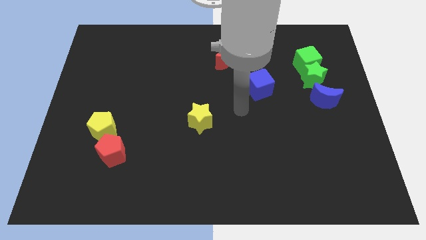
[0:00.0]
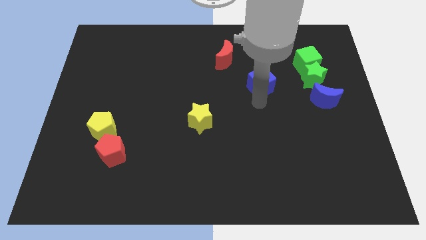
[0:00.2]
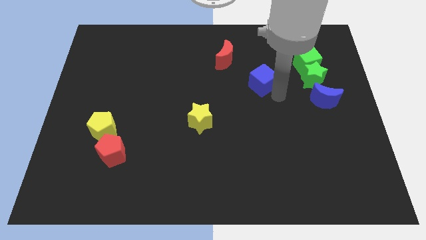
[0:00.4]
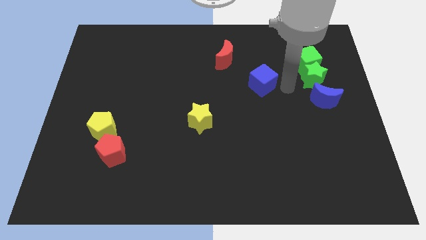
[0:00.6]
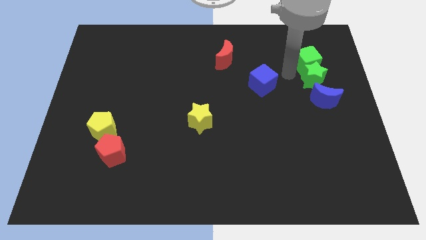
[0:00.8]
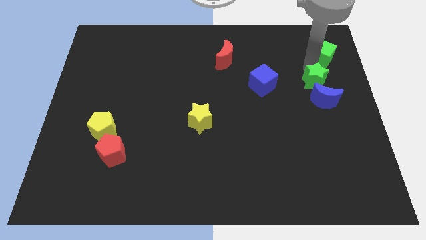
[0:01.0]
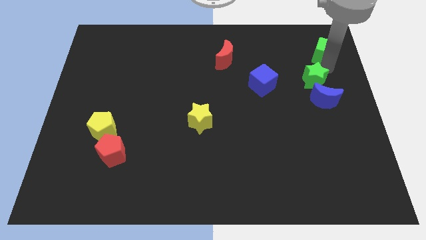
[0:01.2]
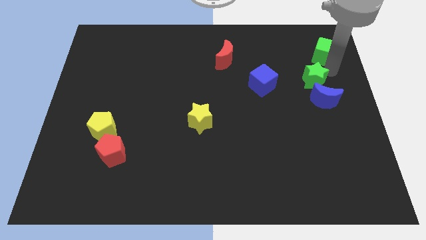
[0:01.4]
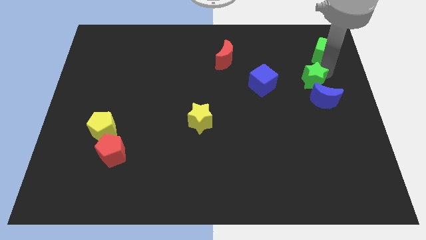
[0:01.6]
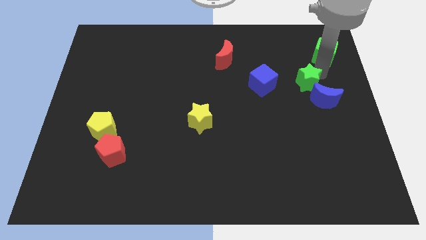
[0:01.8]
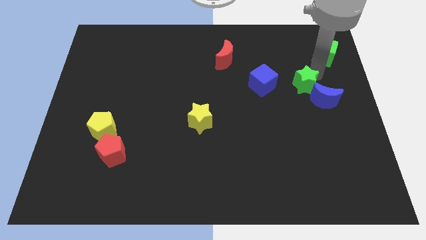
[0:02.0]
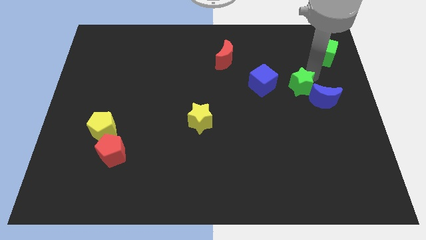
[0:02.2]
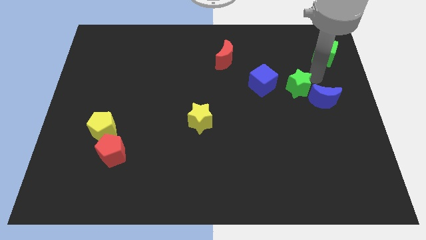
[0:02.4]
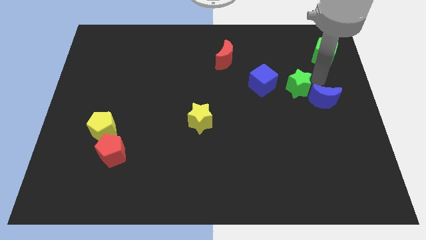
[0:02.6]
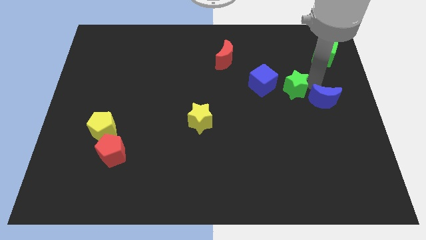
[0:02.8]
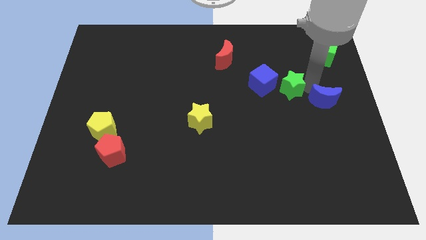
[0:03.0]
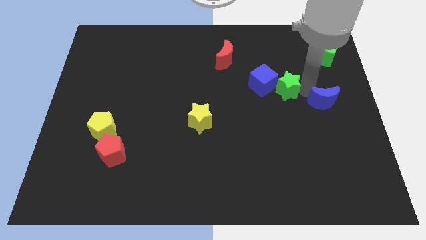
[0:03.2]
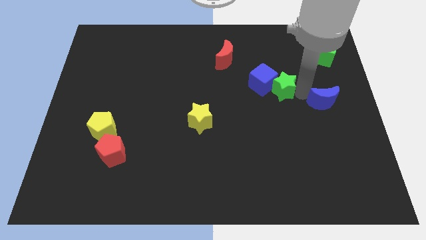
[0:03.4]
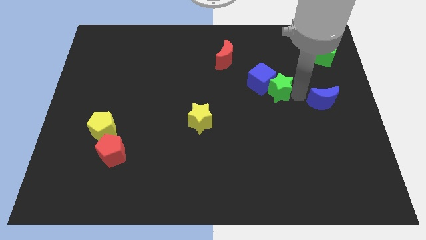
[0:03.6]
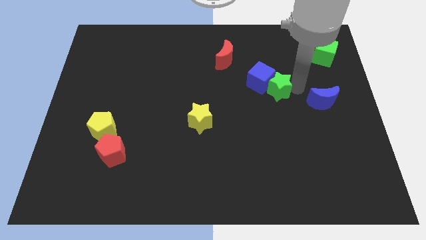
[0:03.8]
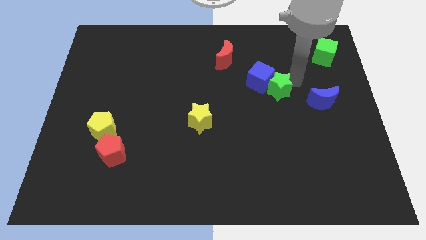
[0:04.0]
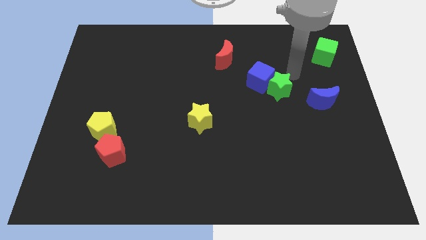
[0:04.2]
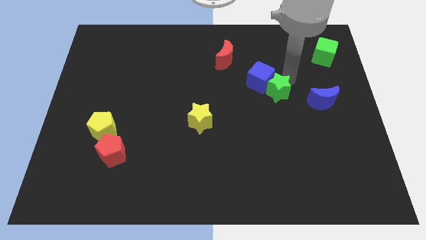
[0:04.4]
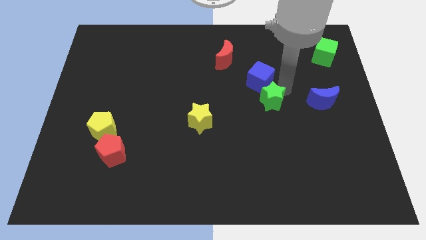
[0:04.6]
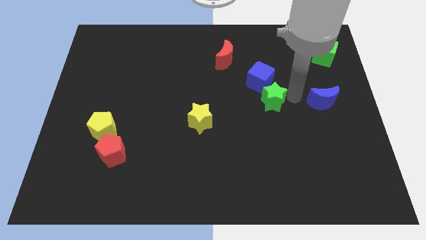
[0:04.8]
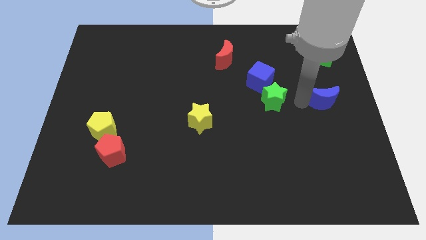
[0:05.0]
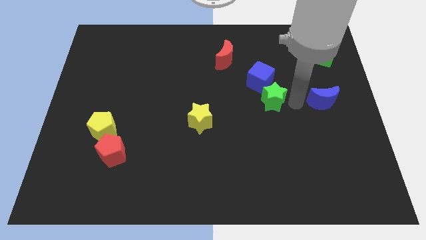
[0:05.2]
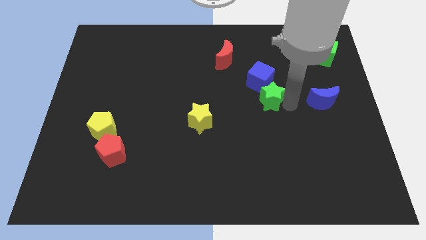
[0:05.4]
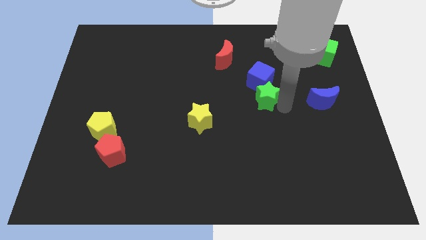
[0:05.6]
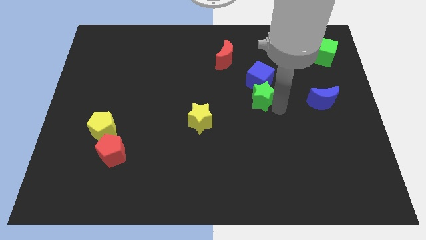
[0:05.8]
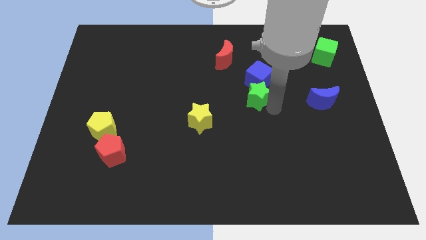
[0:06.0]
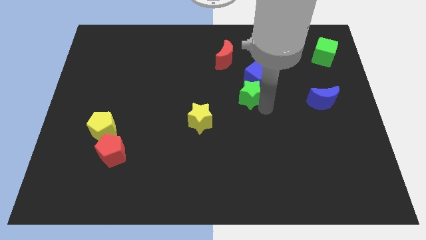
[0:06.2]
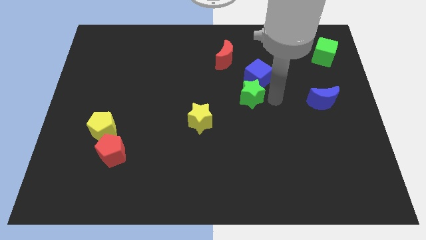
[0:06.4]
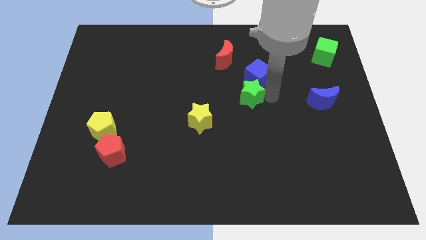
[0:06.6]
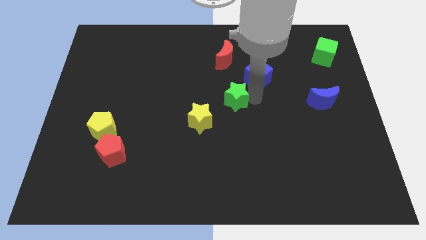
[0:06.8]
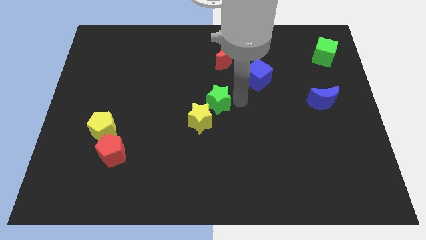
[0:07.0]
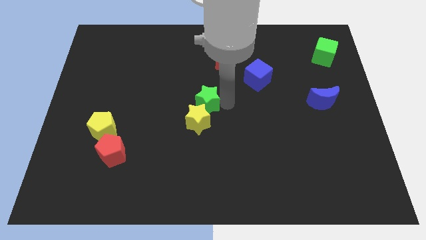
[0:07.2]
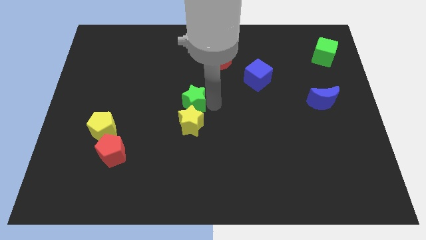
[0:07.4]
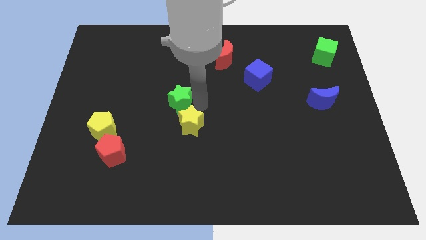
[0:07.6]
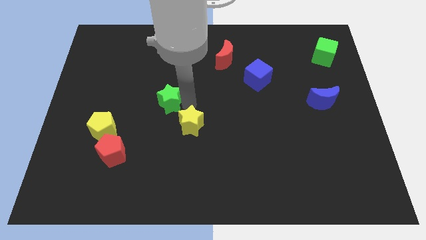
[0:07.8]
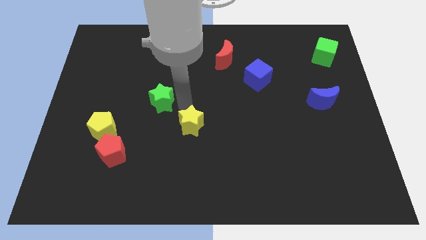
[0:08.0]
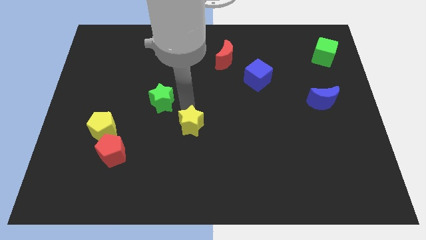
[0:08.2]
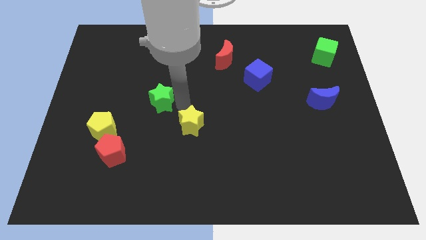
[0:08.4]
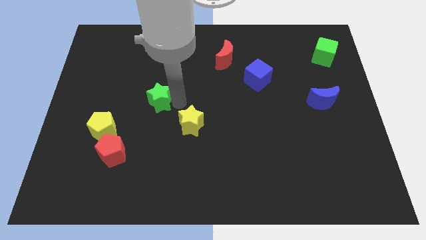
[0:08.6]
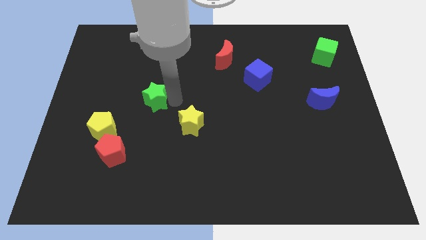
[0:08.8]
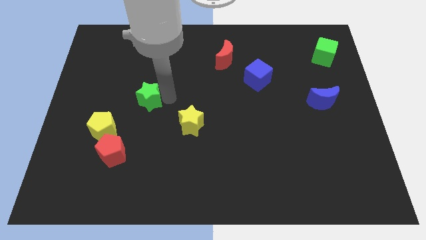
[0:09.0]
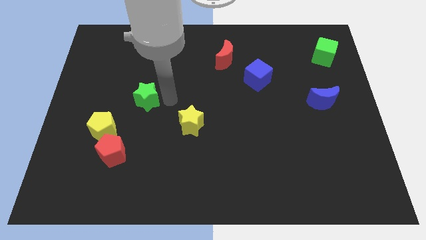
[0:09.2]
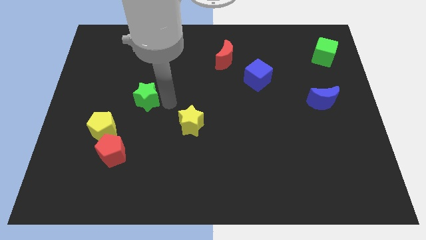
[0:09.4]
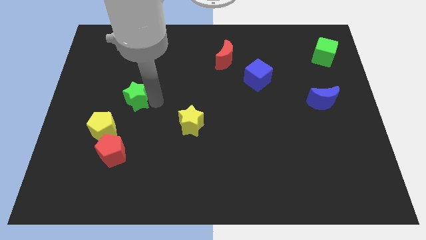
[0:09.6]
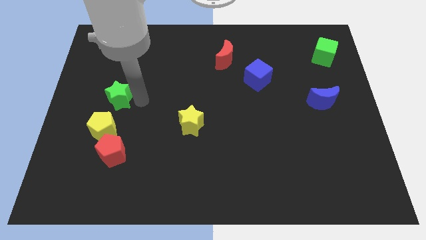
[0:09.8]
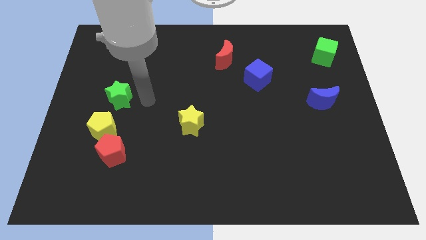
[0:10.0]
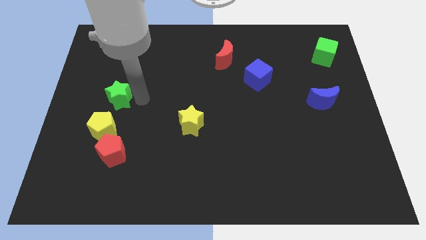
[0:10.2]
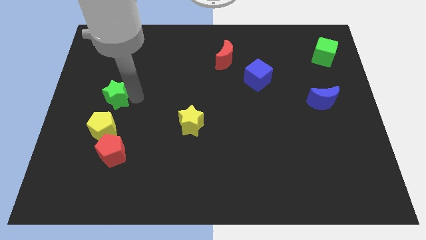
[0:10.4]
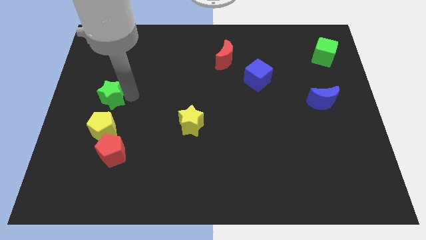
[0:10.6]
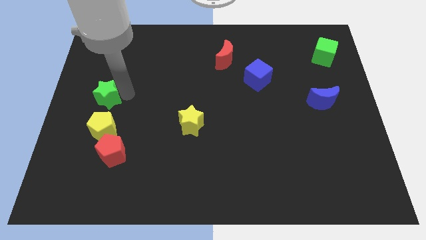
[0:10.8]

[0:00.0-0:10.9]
slide the green star to the left side of the board
